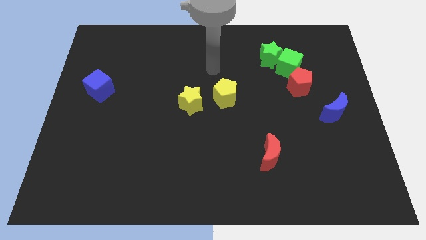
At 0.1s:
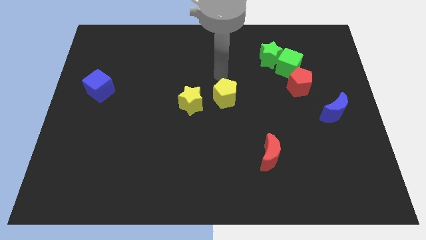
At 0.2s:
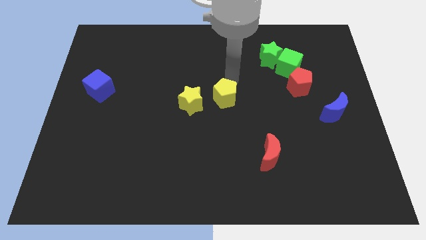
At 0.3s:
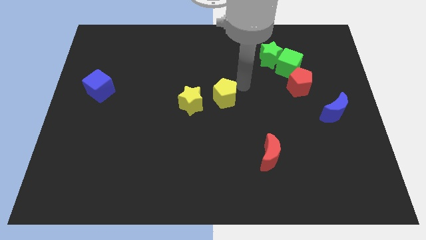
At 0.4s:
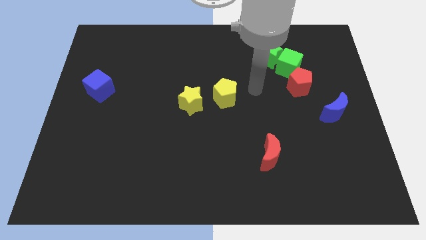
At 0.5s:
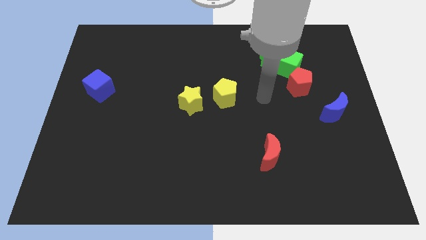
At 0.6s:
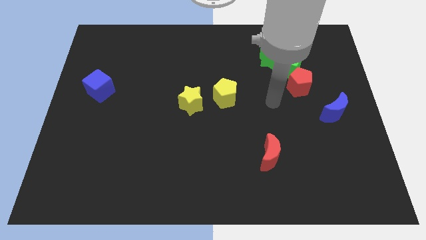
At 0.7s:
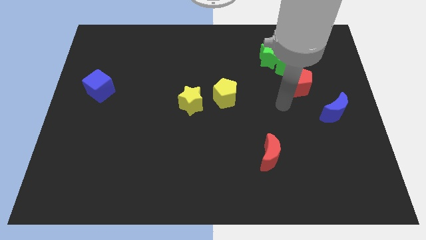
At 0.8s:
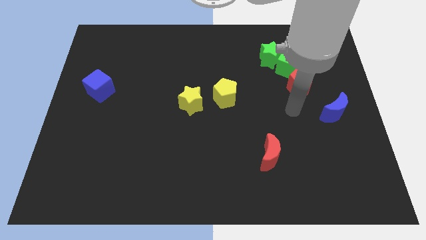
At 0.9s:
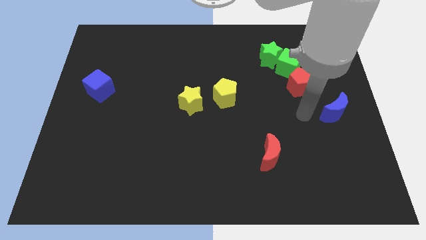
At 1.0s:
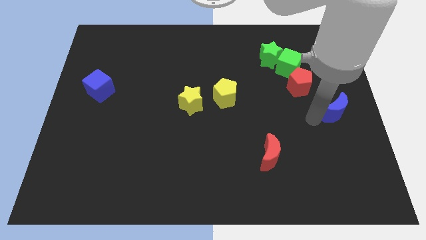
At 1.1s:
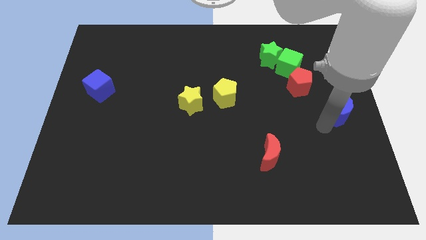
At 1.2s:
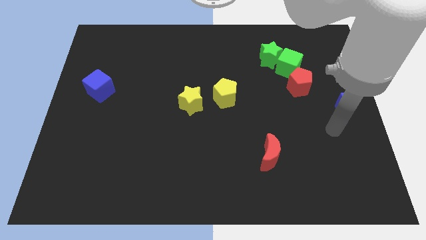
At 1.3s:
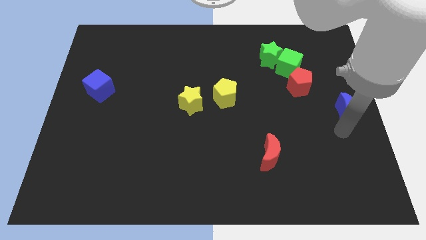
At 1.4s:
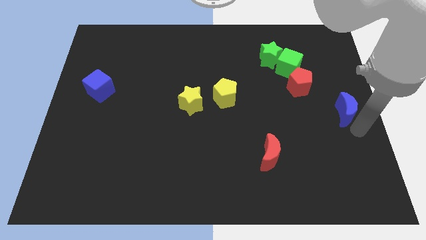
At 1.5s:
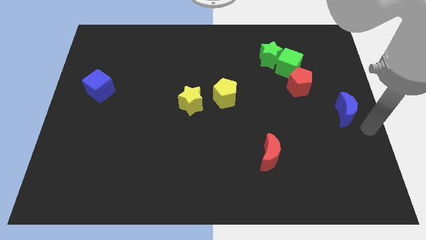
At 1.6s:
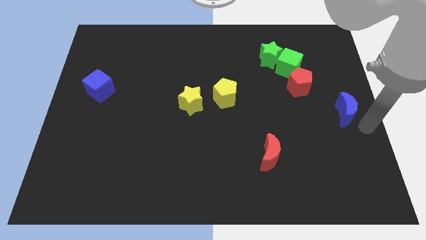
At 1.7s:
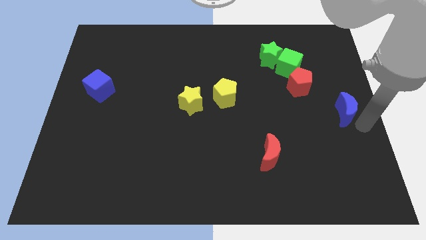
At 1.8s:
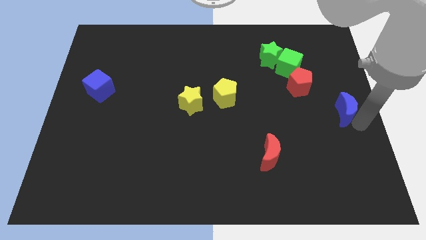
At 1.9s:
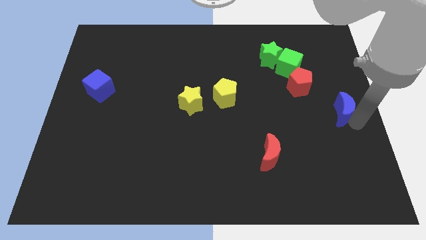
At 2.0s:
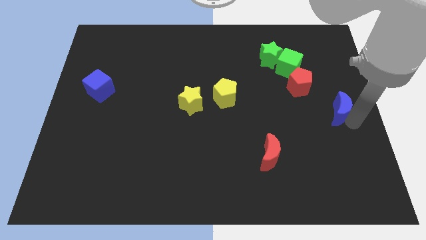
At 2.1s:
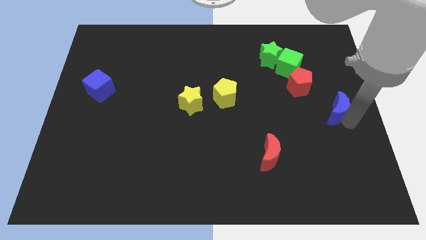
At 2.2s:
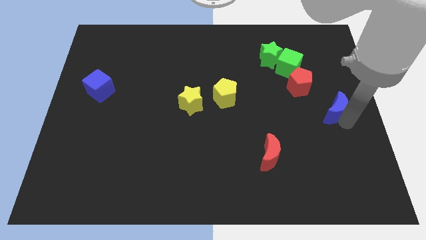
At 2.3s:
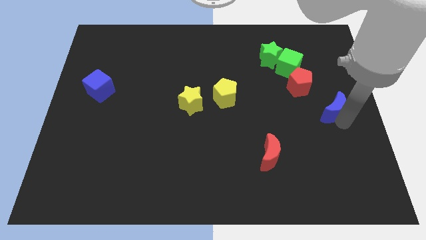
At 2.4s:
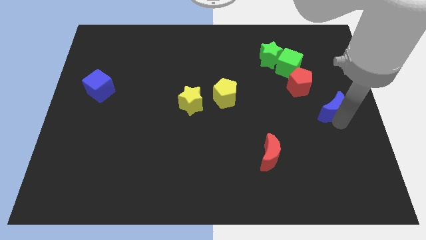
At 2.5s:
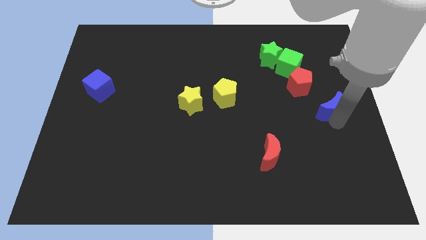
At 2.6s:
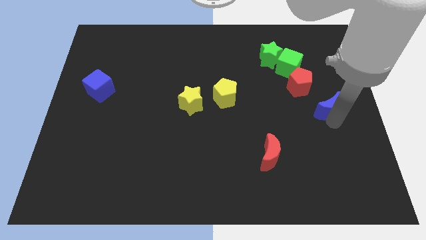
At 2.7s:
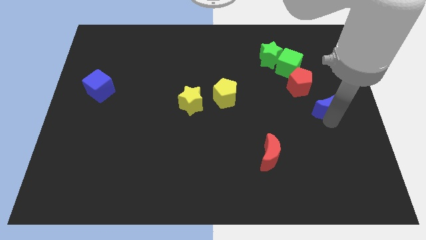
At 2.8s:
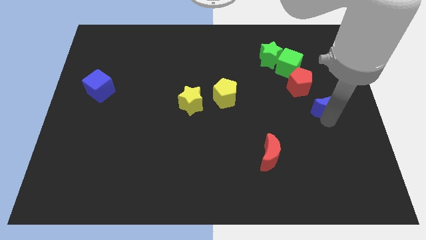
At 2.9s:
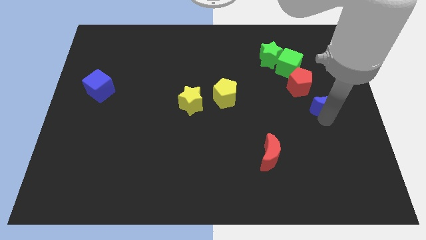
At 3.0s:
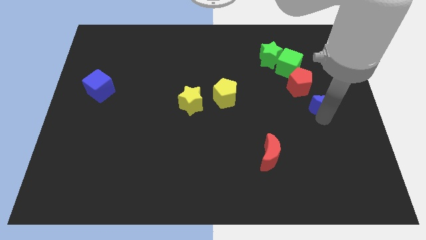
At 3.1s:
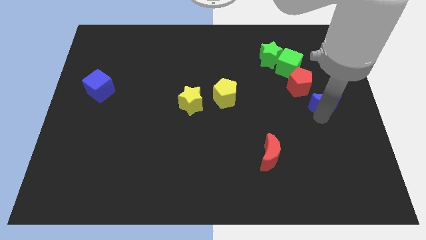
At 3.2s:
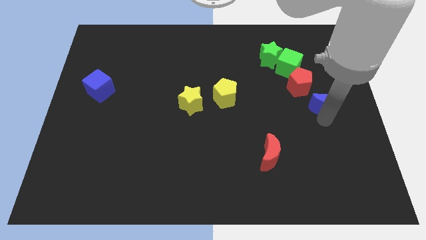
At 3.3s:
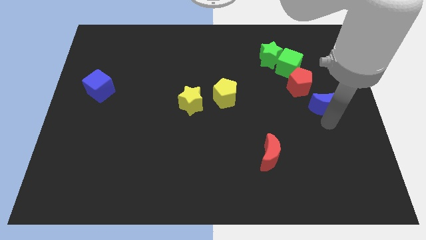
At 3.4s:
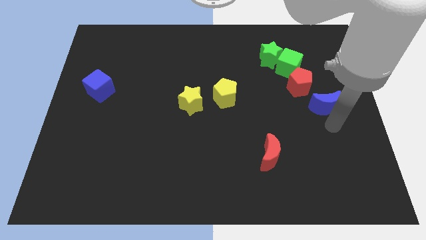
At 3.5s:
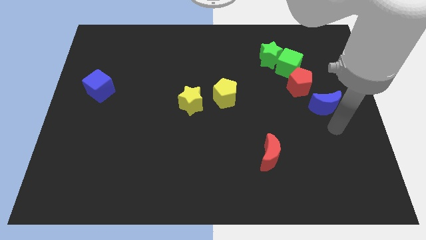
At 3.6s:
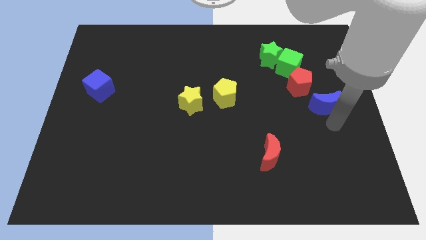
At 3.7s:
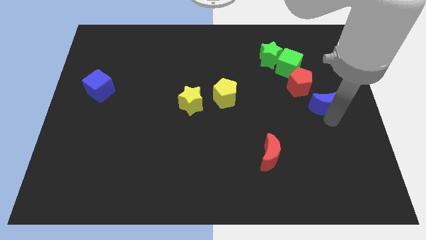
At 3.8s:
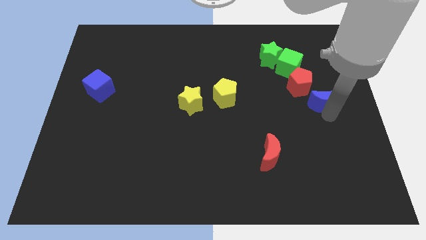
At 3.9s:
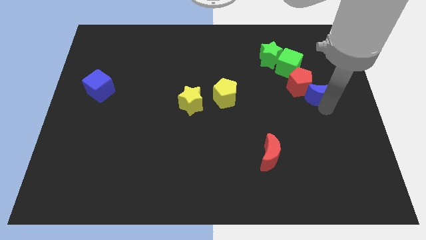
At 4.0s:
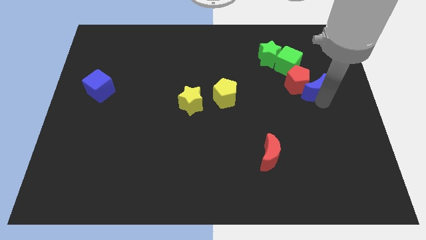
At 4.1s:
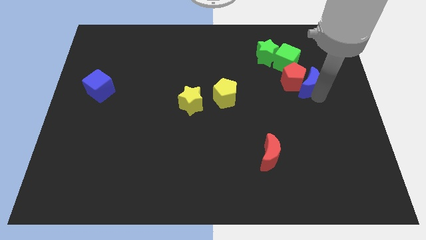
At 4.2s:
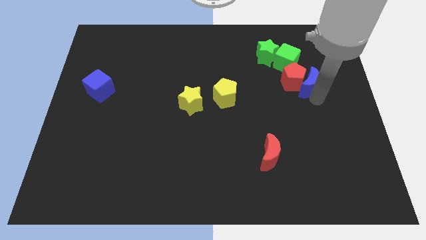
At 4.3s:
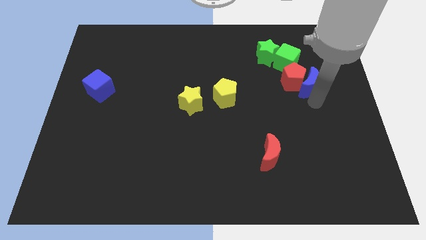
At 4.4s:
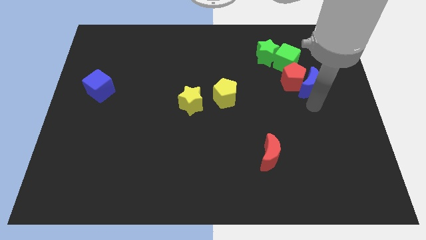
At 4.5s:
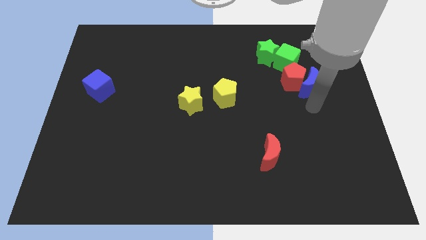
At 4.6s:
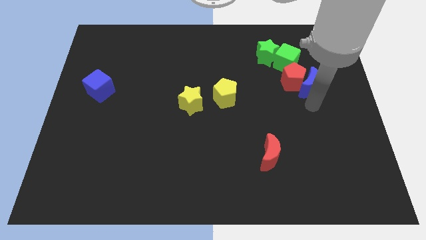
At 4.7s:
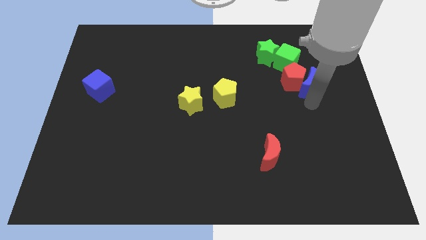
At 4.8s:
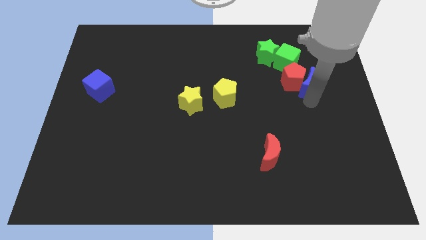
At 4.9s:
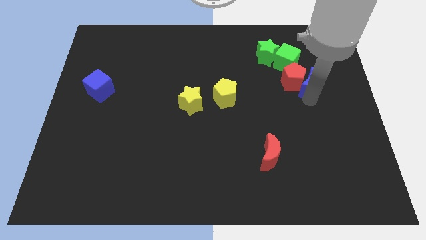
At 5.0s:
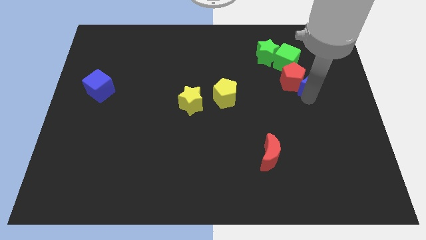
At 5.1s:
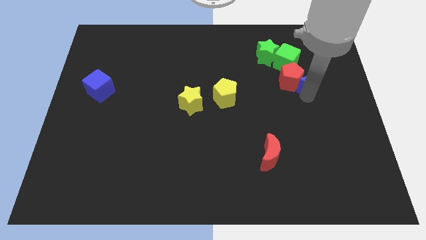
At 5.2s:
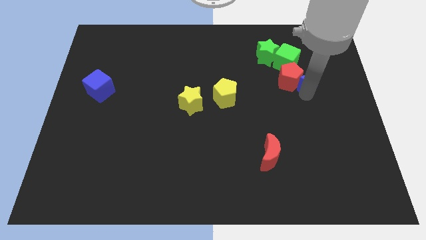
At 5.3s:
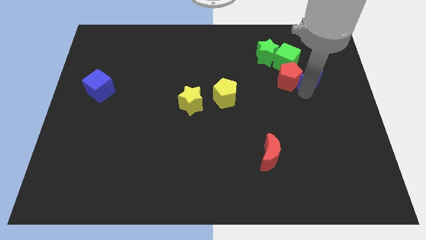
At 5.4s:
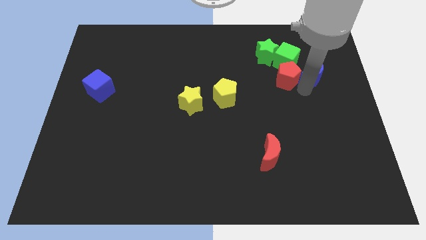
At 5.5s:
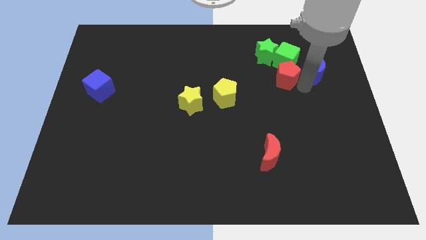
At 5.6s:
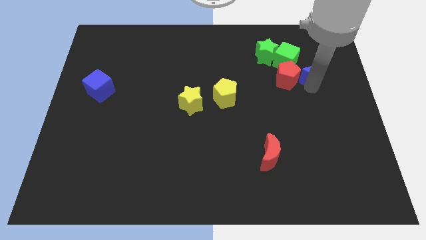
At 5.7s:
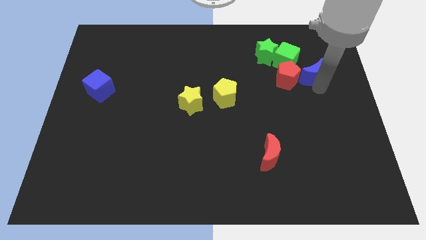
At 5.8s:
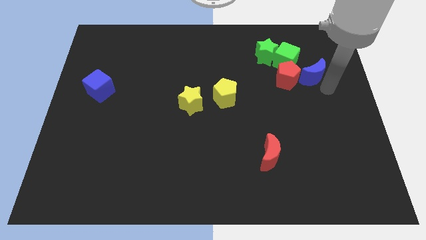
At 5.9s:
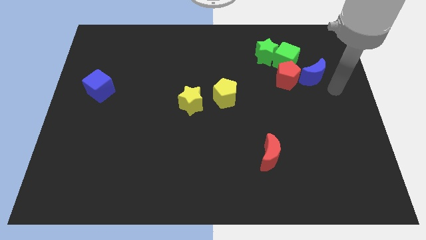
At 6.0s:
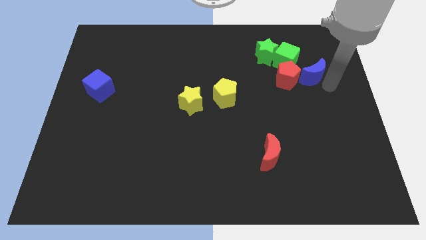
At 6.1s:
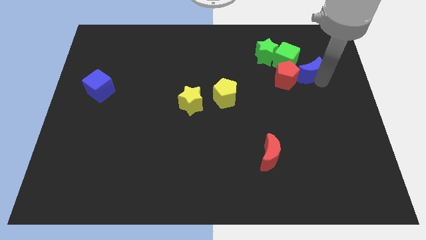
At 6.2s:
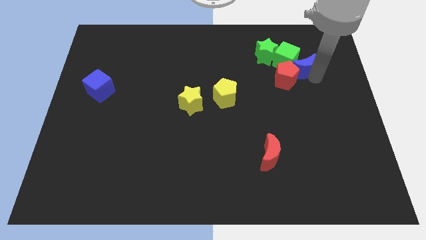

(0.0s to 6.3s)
push the blue moon next to the green cube

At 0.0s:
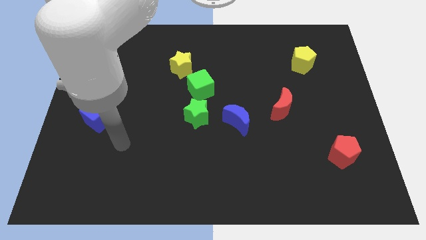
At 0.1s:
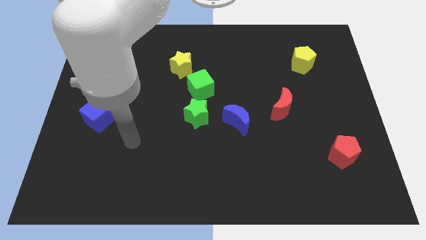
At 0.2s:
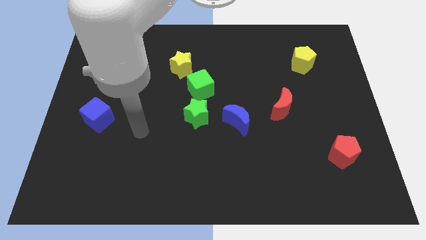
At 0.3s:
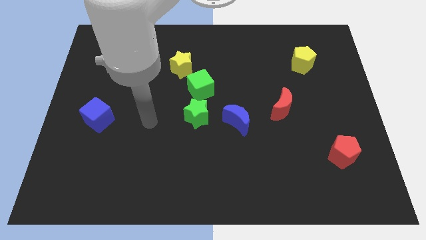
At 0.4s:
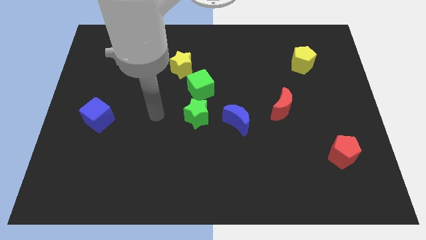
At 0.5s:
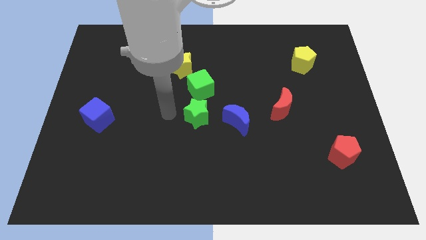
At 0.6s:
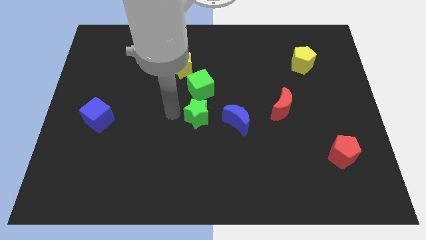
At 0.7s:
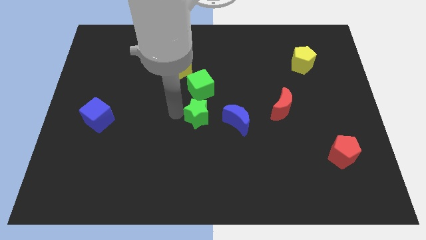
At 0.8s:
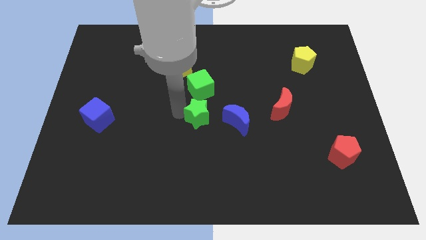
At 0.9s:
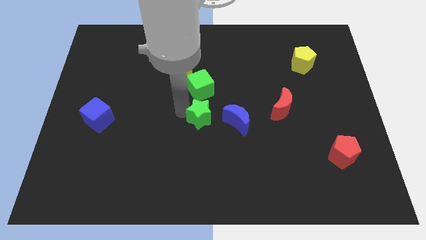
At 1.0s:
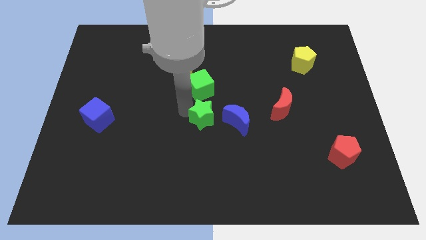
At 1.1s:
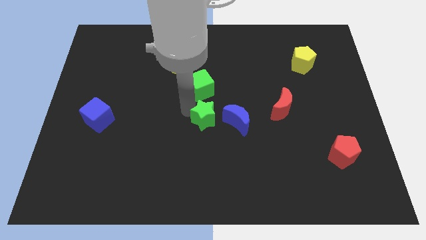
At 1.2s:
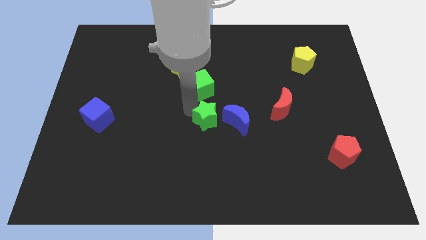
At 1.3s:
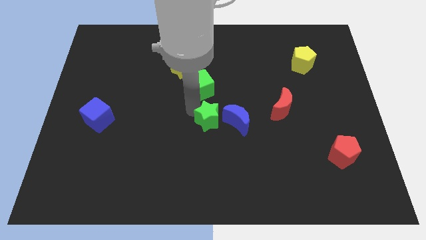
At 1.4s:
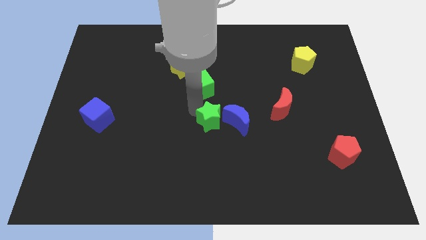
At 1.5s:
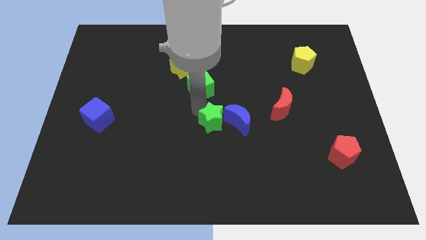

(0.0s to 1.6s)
push the green star close to the blue moon
